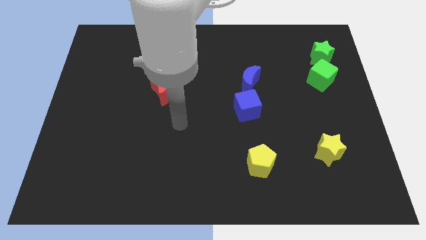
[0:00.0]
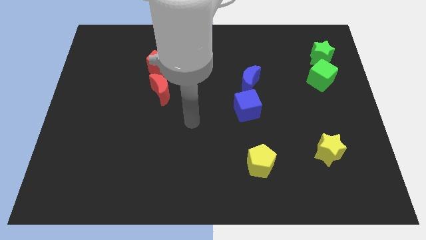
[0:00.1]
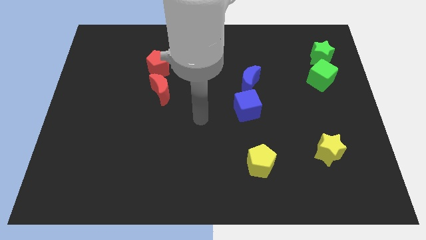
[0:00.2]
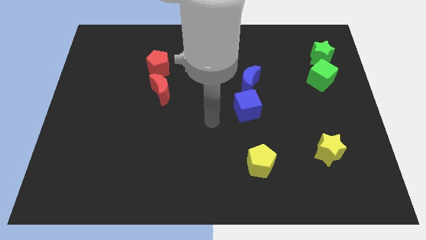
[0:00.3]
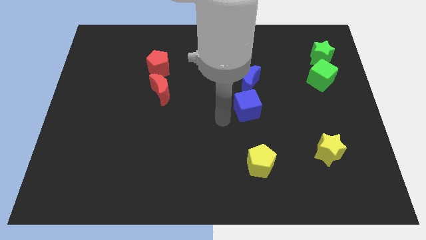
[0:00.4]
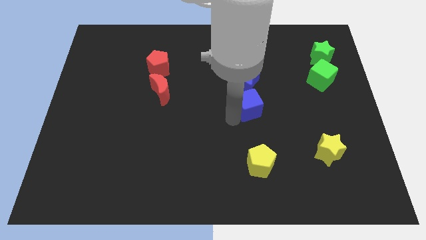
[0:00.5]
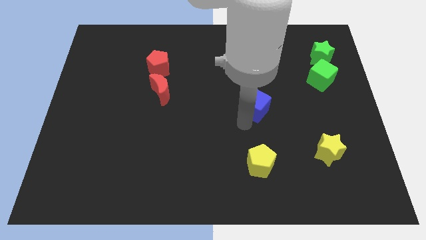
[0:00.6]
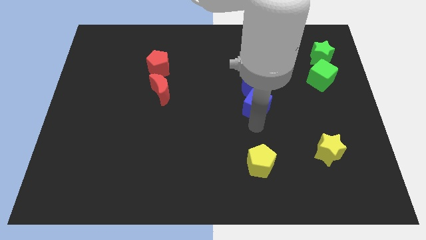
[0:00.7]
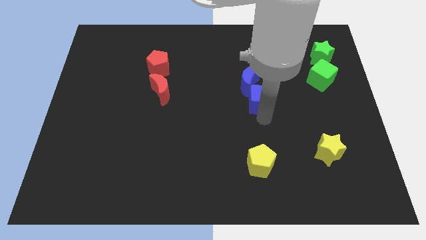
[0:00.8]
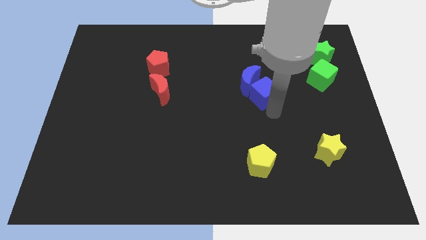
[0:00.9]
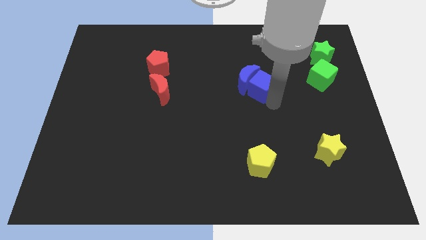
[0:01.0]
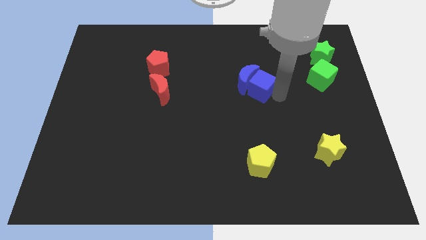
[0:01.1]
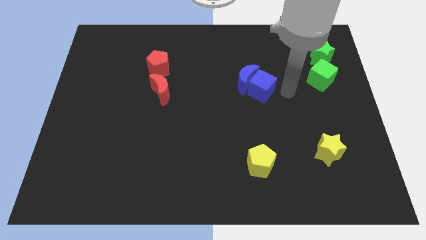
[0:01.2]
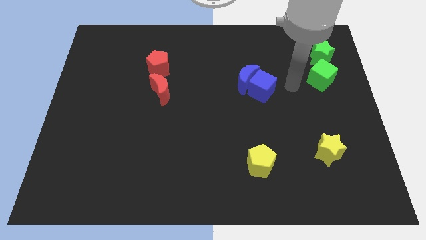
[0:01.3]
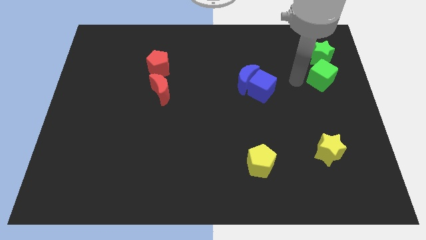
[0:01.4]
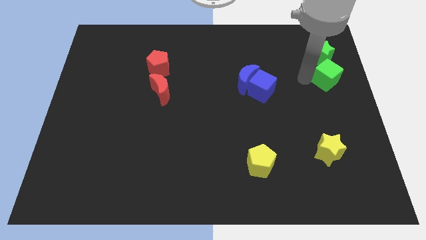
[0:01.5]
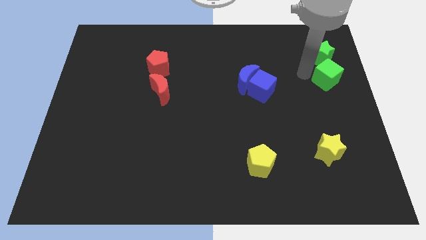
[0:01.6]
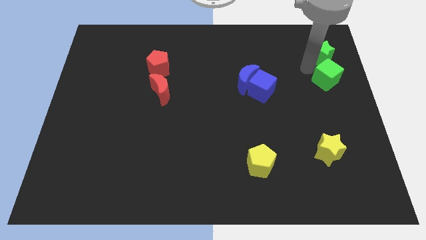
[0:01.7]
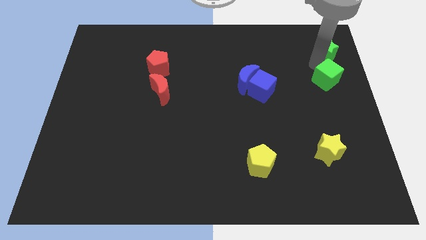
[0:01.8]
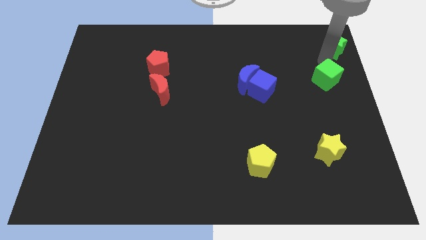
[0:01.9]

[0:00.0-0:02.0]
move the green cube away from the green star

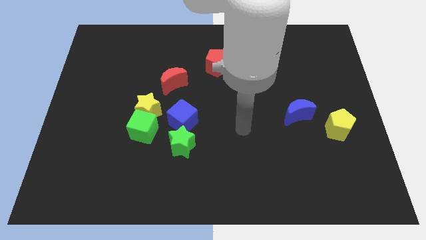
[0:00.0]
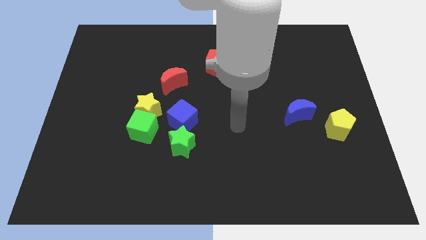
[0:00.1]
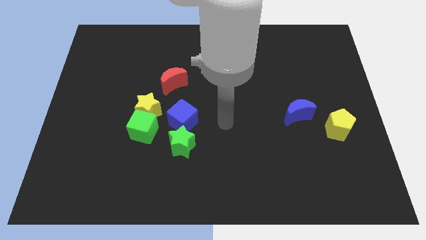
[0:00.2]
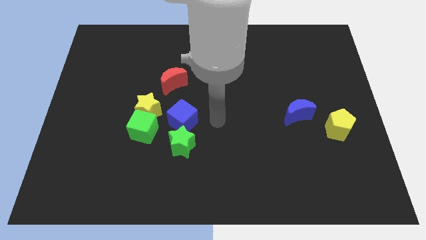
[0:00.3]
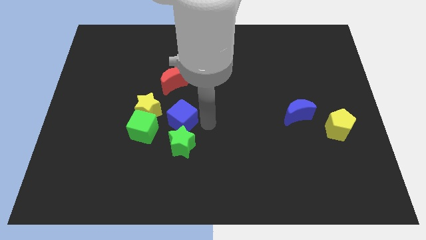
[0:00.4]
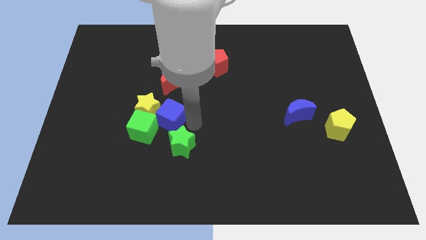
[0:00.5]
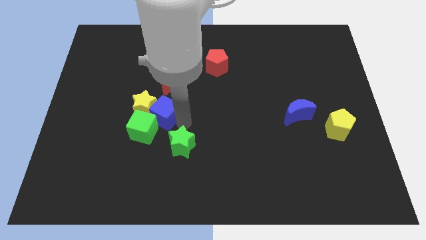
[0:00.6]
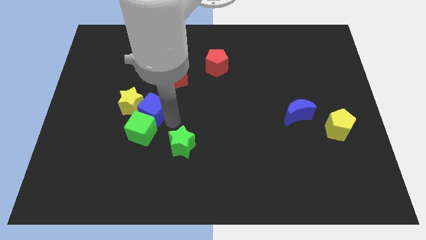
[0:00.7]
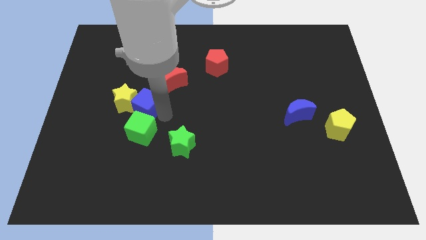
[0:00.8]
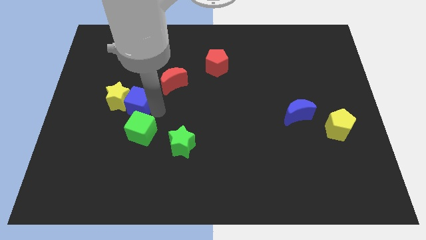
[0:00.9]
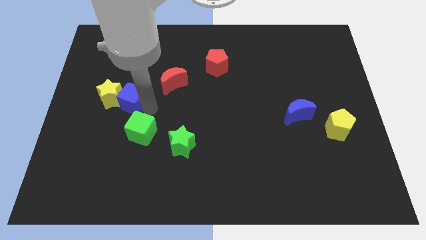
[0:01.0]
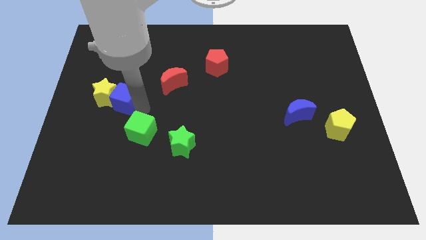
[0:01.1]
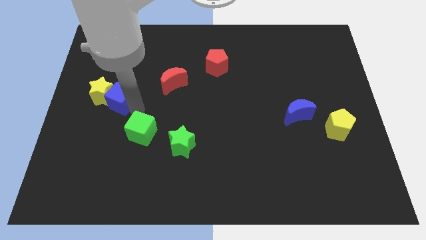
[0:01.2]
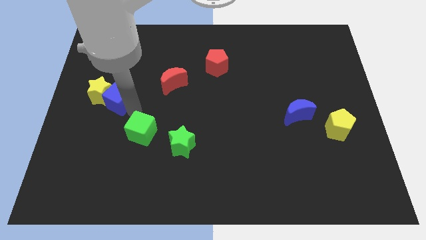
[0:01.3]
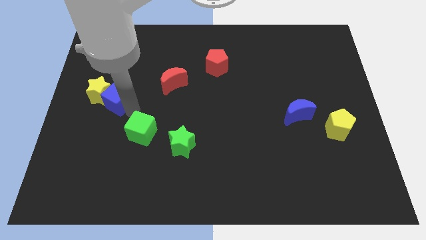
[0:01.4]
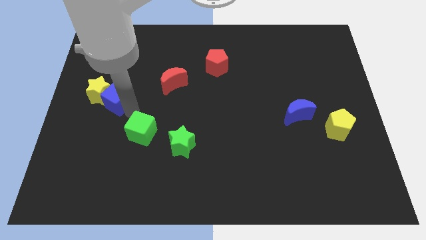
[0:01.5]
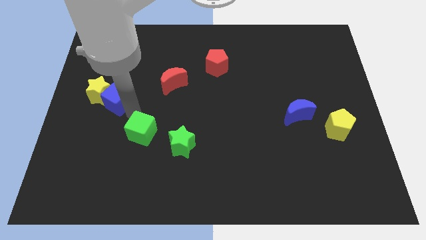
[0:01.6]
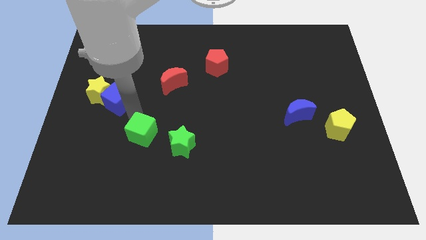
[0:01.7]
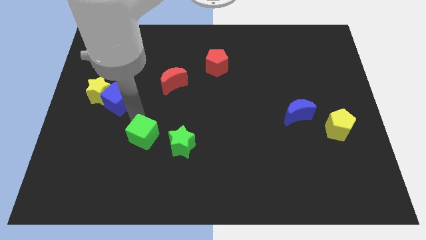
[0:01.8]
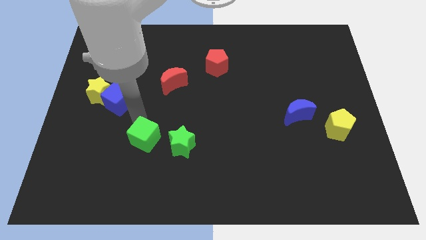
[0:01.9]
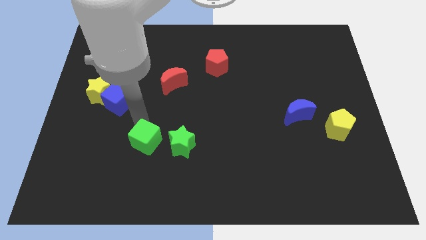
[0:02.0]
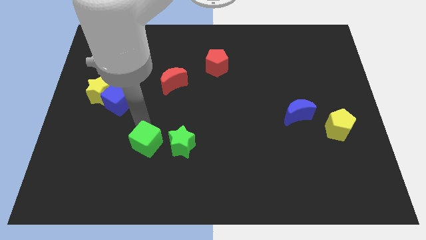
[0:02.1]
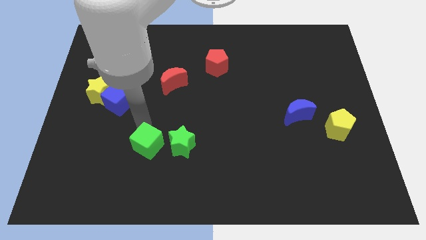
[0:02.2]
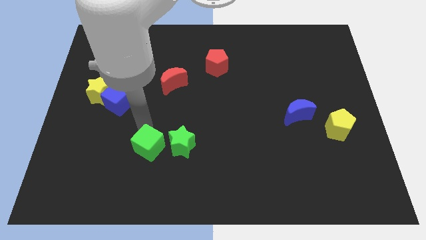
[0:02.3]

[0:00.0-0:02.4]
separate the green cube from the yellow star, blue cube, and green star

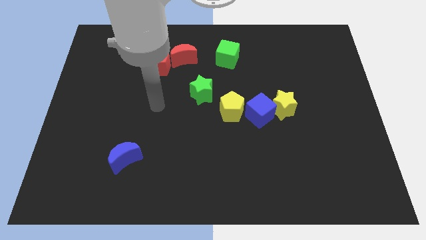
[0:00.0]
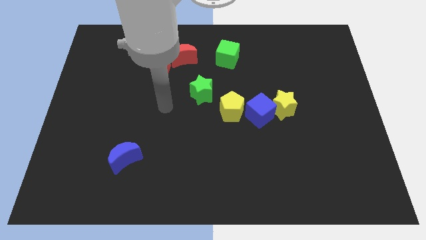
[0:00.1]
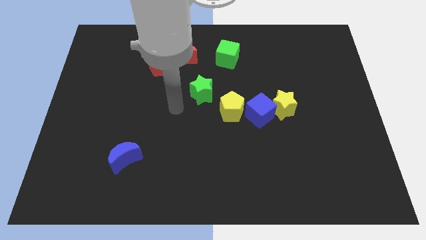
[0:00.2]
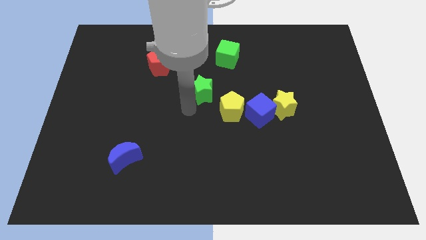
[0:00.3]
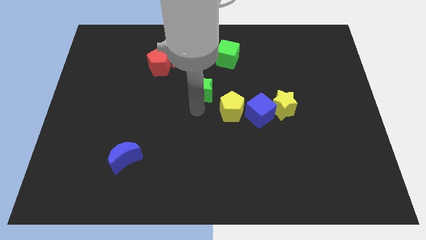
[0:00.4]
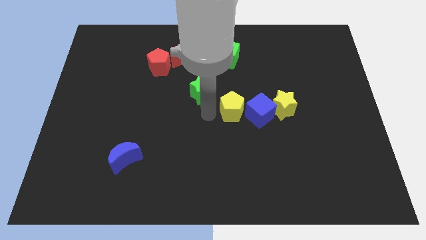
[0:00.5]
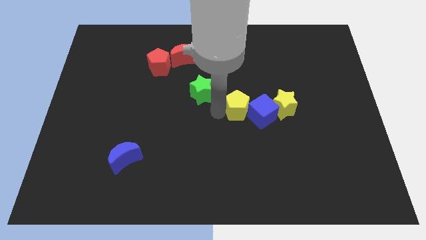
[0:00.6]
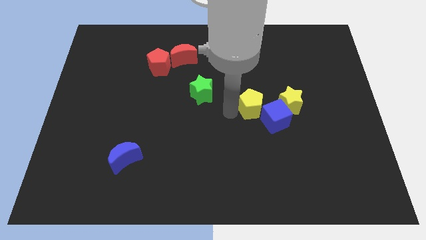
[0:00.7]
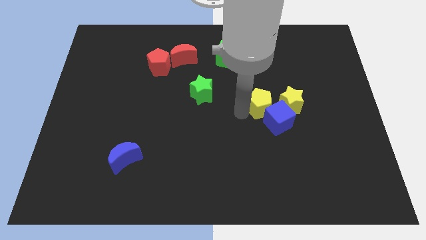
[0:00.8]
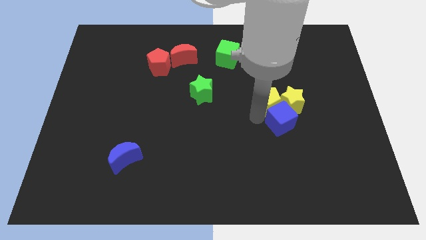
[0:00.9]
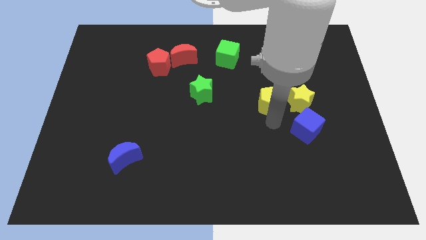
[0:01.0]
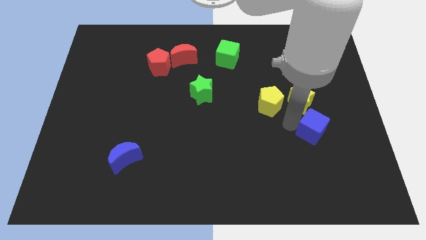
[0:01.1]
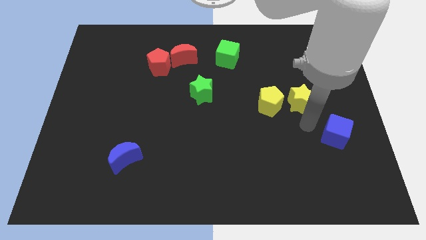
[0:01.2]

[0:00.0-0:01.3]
separate the yellow star from the blue cube

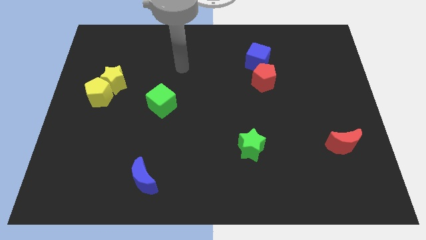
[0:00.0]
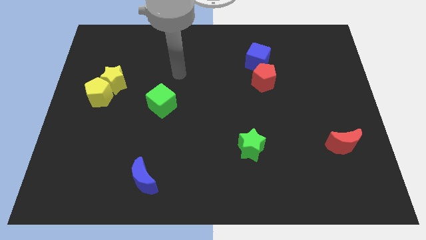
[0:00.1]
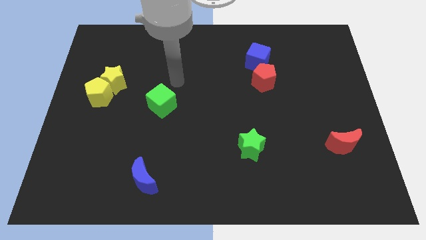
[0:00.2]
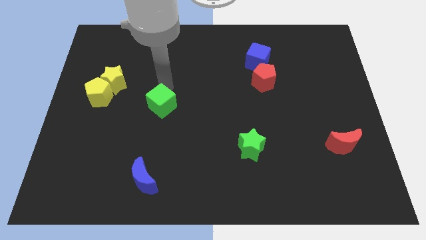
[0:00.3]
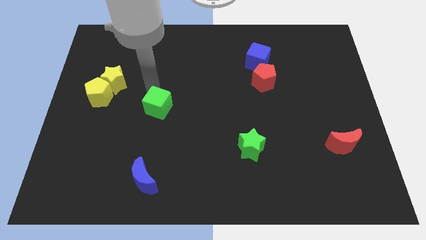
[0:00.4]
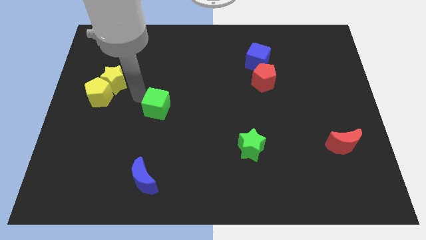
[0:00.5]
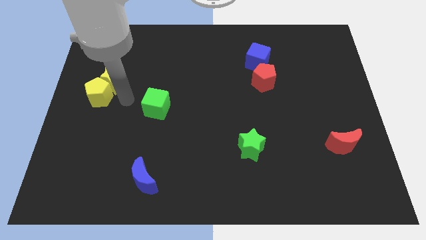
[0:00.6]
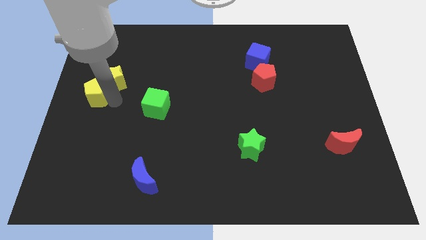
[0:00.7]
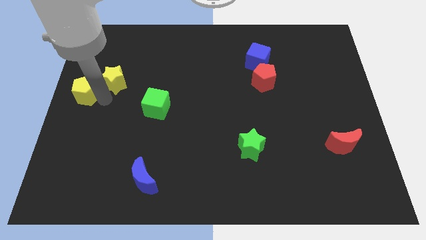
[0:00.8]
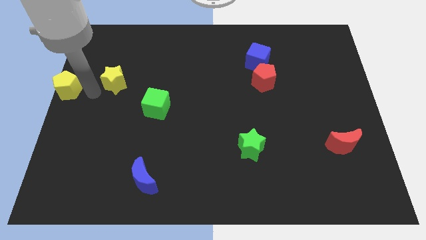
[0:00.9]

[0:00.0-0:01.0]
separate the yellow star from the yellow pentagon

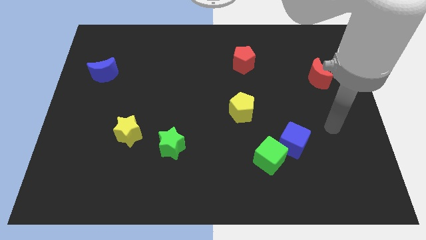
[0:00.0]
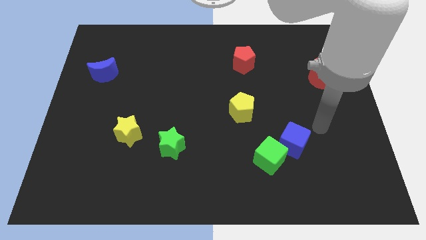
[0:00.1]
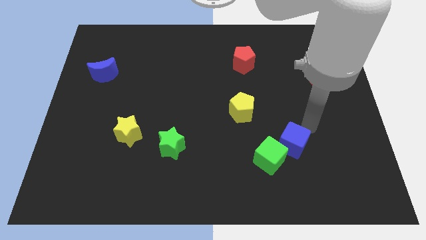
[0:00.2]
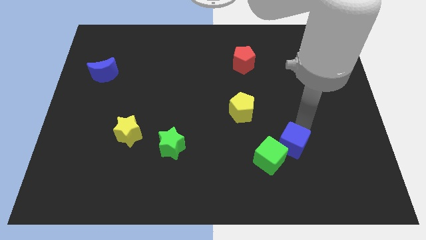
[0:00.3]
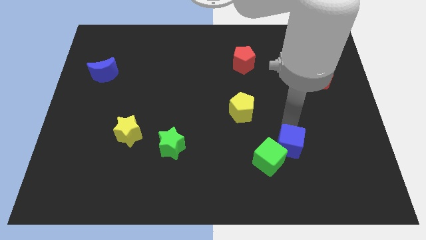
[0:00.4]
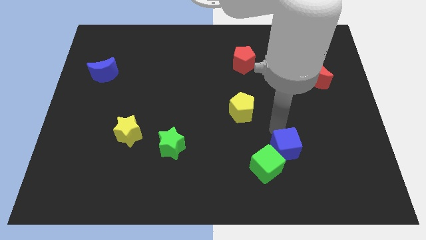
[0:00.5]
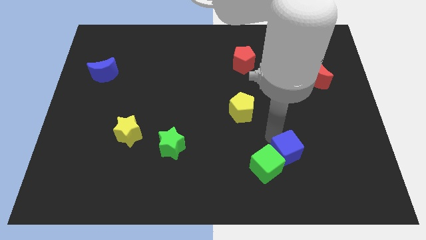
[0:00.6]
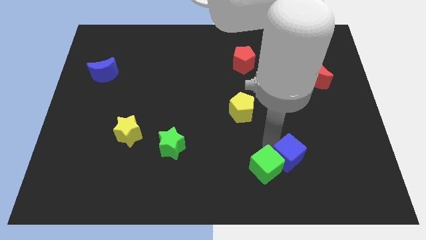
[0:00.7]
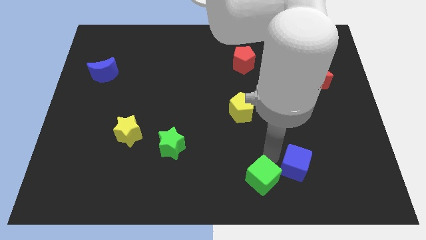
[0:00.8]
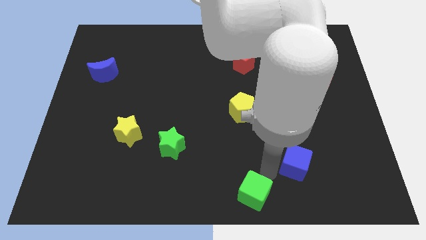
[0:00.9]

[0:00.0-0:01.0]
separate the blue cube from the green cube

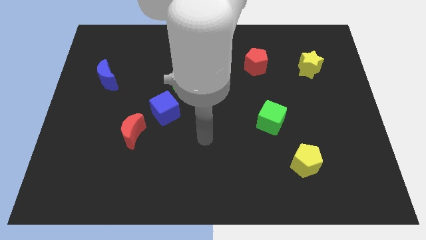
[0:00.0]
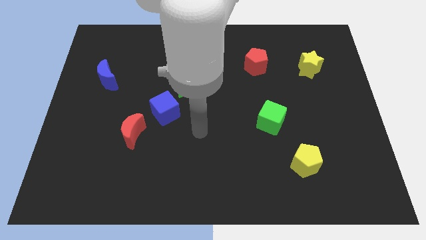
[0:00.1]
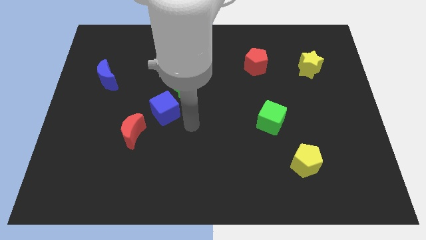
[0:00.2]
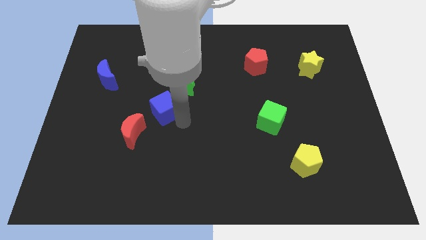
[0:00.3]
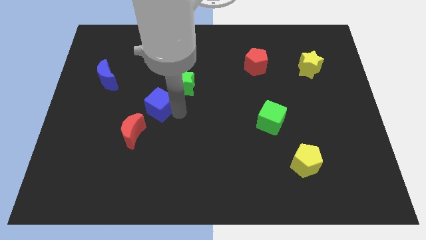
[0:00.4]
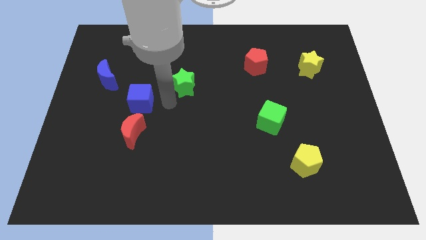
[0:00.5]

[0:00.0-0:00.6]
separate the green star from the blue cube

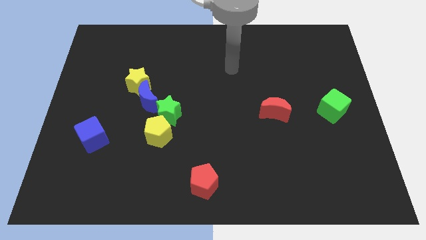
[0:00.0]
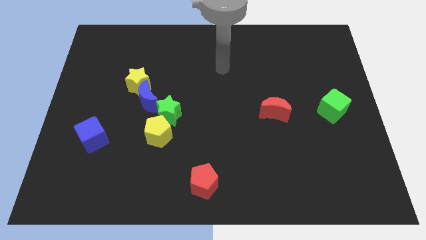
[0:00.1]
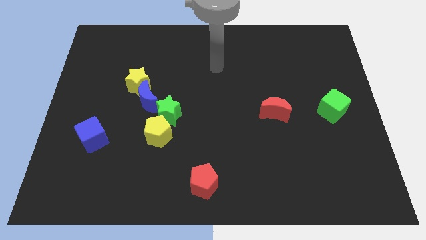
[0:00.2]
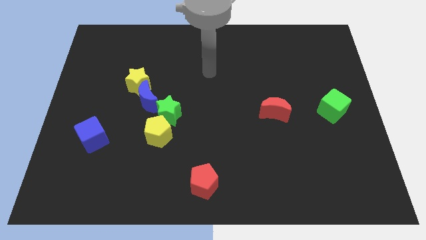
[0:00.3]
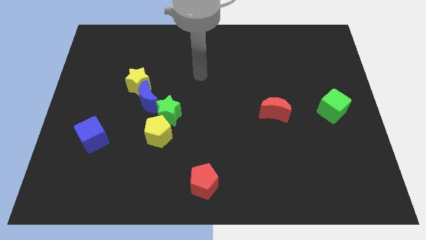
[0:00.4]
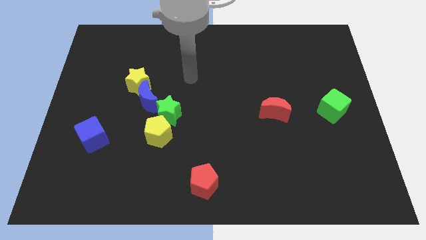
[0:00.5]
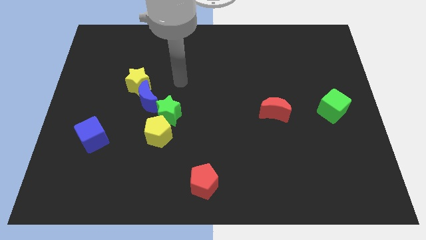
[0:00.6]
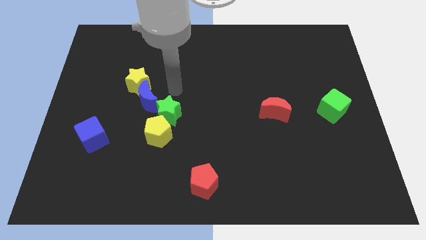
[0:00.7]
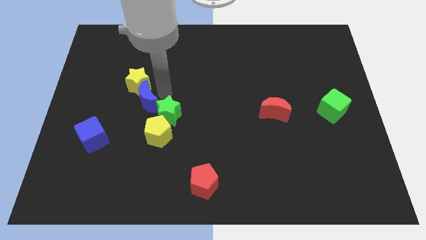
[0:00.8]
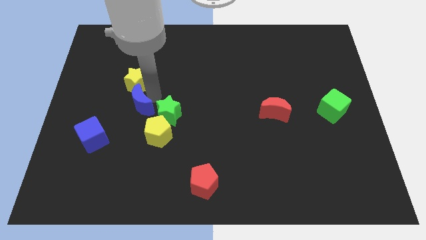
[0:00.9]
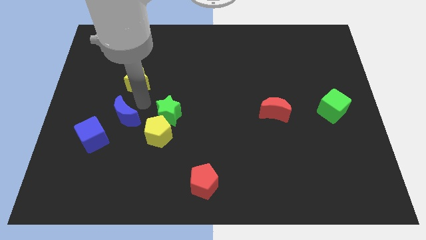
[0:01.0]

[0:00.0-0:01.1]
move the yellow star away from the blue moon
